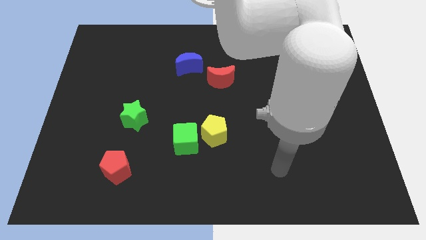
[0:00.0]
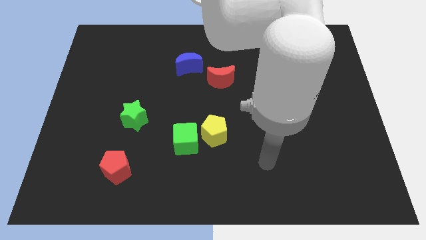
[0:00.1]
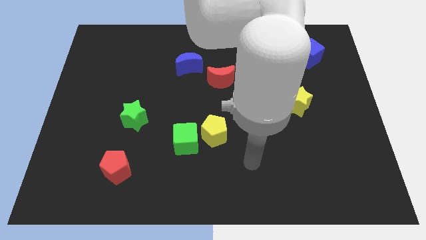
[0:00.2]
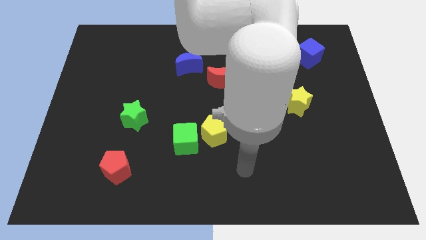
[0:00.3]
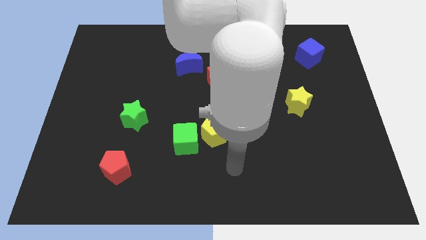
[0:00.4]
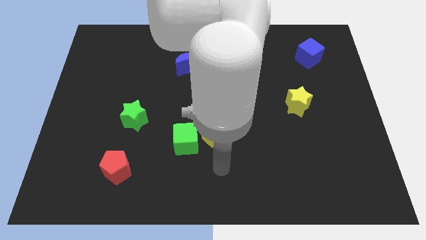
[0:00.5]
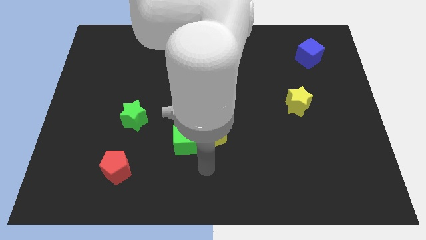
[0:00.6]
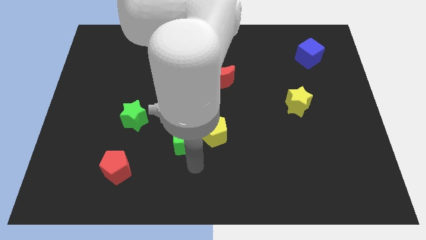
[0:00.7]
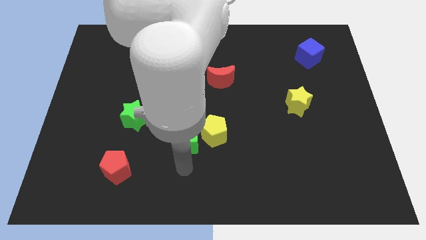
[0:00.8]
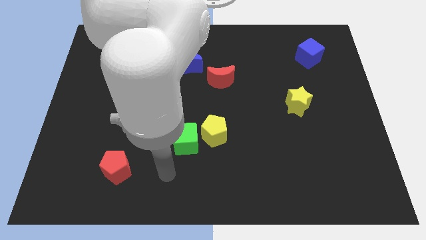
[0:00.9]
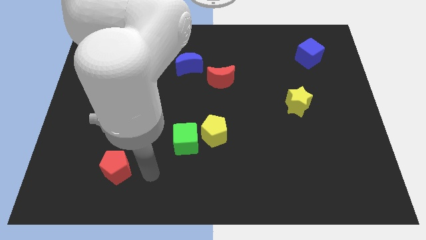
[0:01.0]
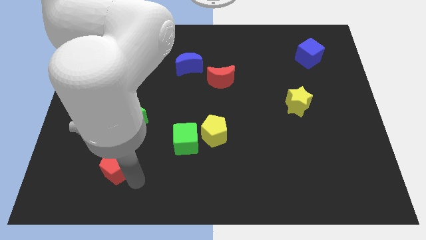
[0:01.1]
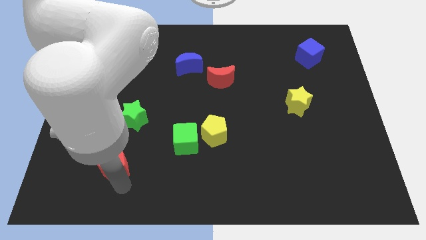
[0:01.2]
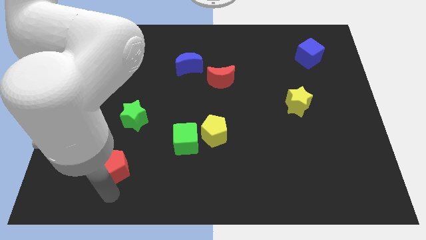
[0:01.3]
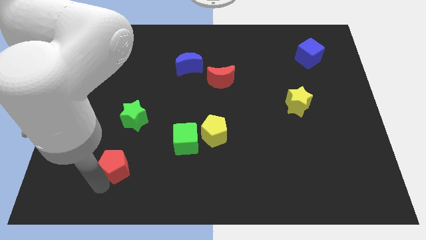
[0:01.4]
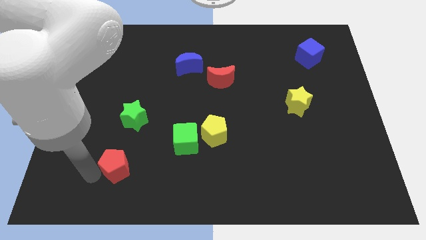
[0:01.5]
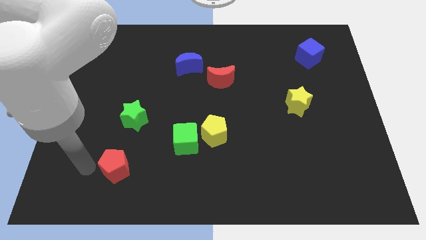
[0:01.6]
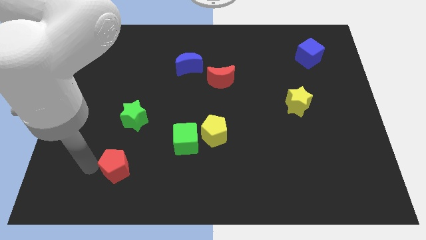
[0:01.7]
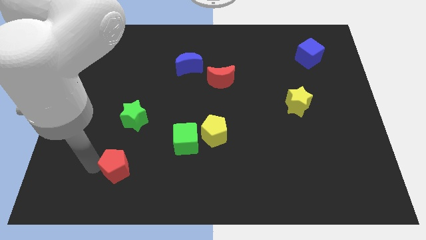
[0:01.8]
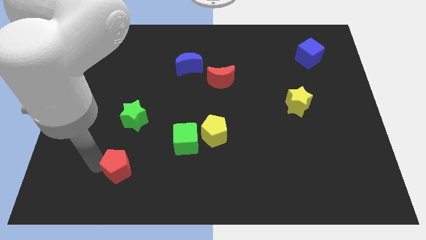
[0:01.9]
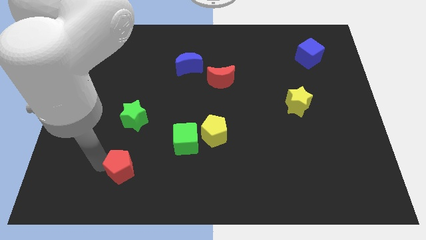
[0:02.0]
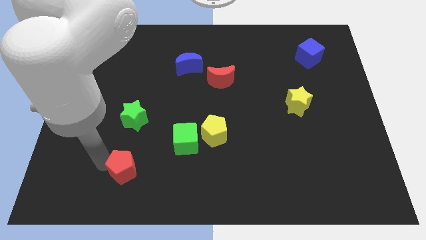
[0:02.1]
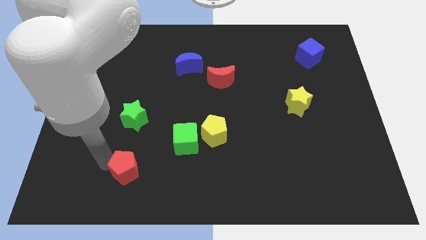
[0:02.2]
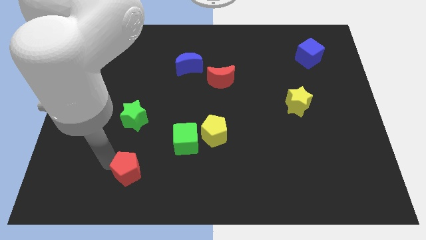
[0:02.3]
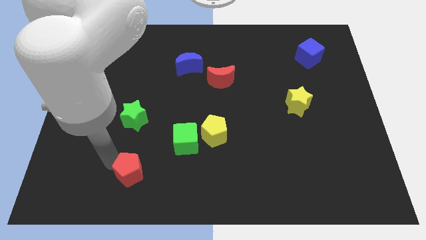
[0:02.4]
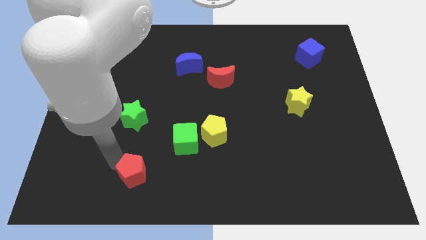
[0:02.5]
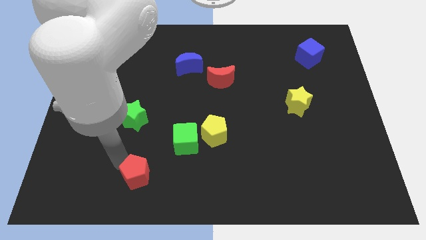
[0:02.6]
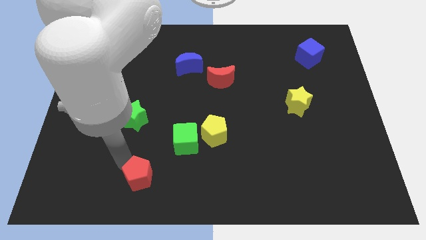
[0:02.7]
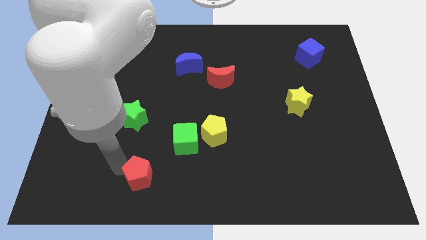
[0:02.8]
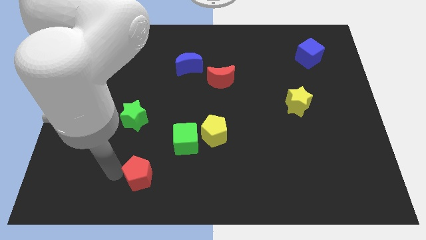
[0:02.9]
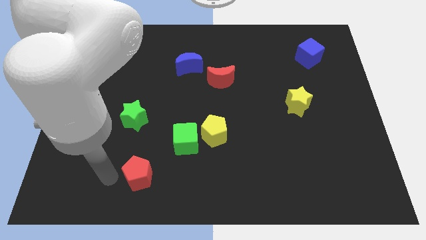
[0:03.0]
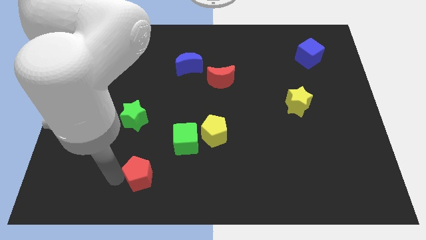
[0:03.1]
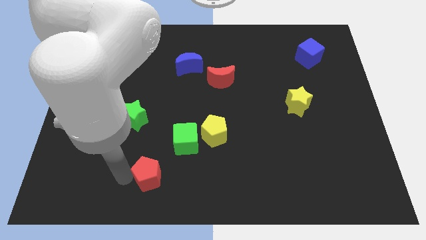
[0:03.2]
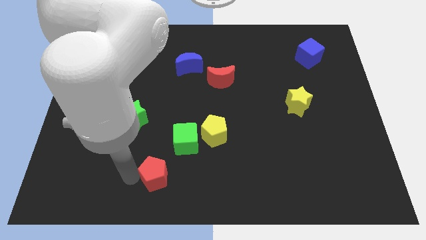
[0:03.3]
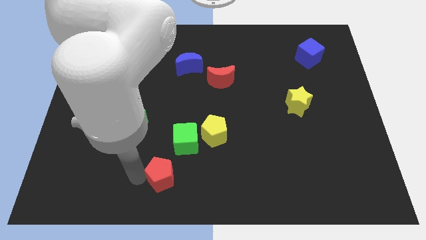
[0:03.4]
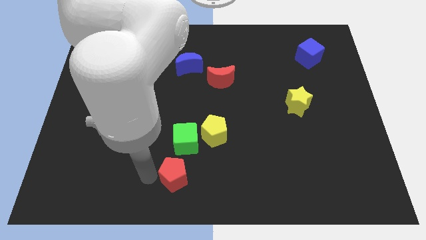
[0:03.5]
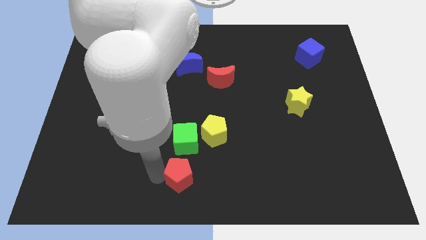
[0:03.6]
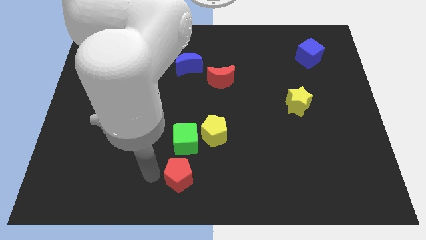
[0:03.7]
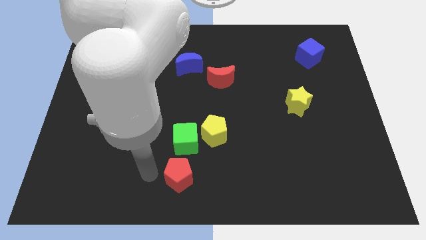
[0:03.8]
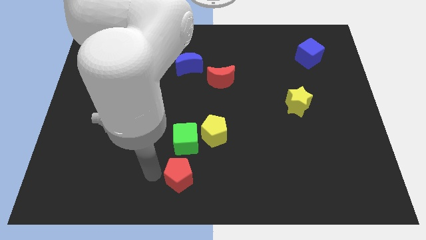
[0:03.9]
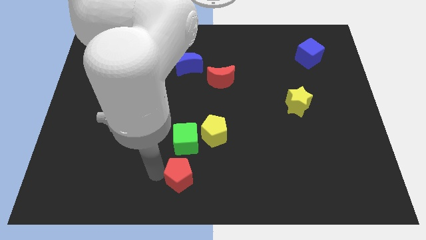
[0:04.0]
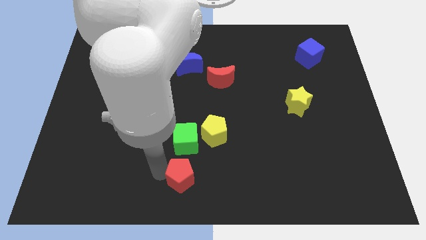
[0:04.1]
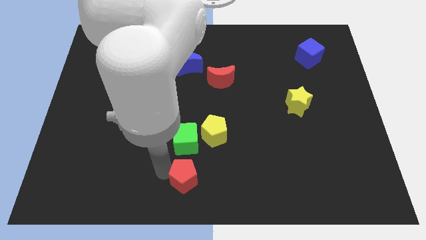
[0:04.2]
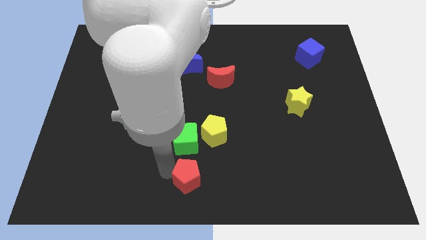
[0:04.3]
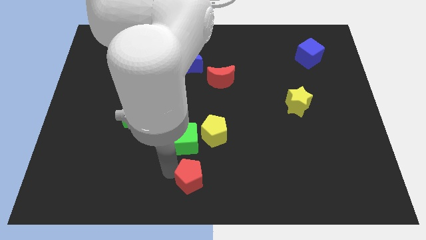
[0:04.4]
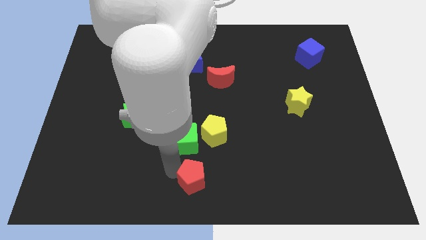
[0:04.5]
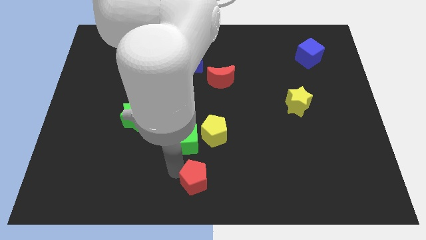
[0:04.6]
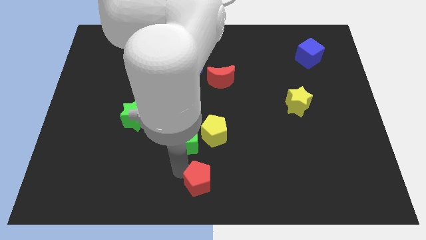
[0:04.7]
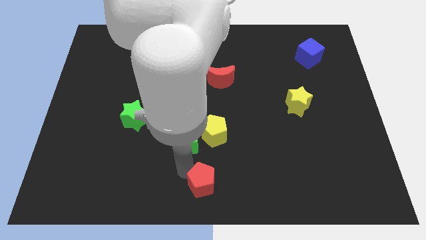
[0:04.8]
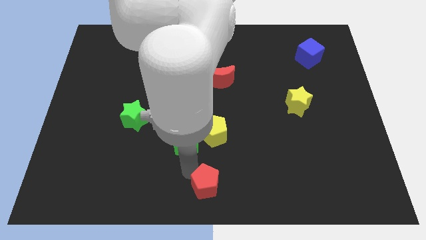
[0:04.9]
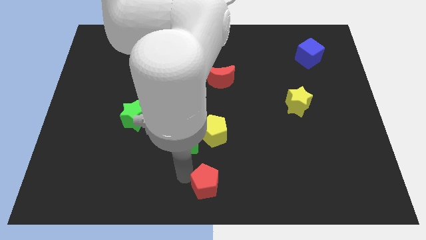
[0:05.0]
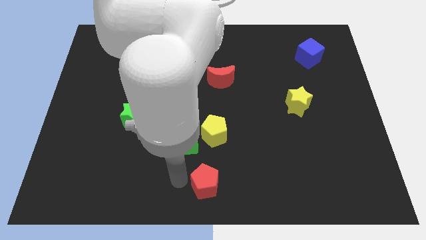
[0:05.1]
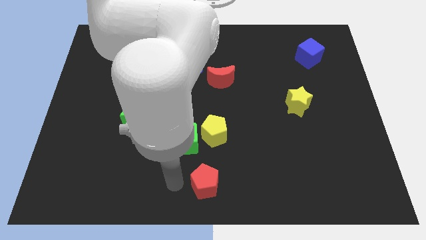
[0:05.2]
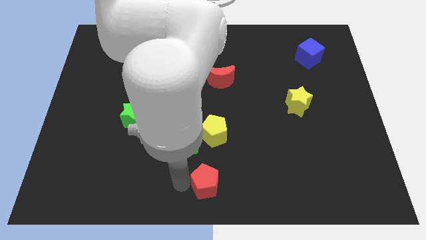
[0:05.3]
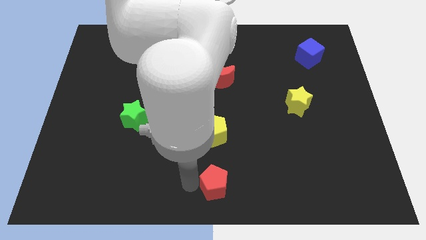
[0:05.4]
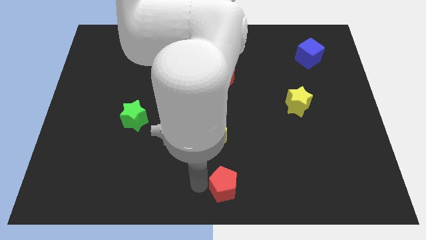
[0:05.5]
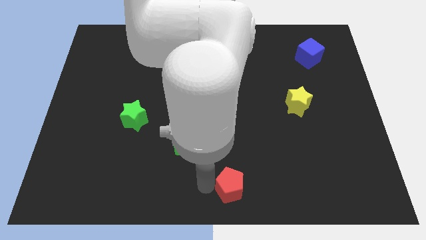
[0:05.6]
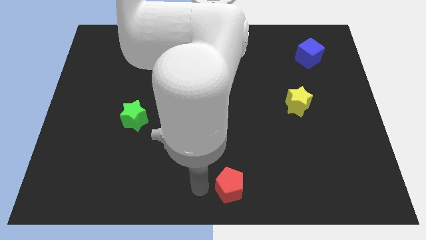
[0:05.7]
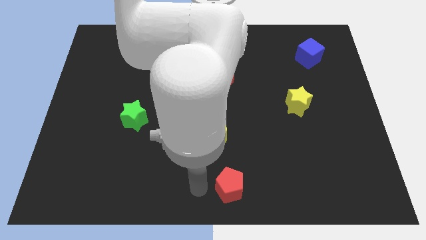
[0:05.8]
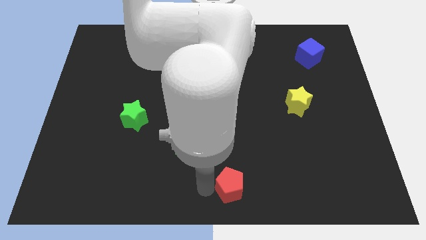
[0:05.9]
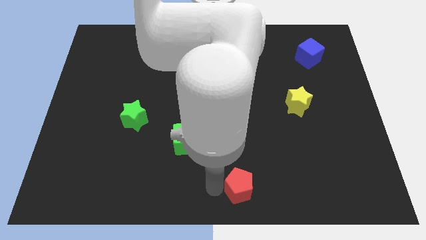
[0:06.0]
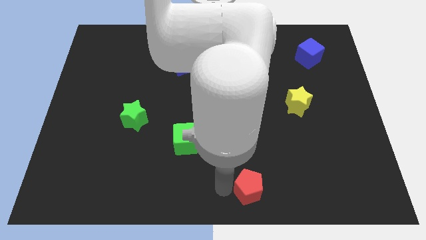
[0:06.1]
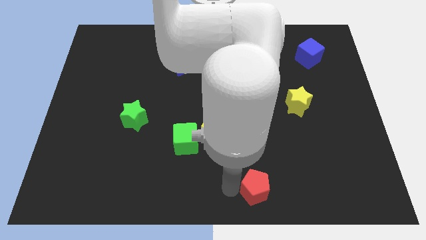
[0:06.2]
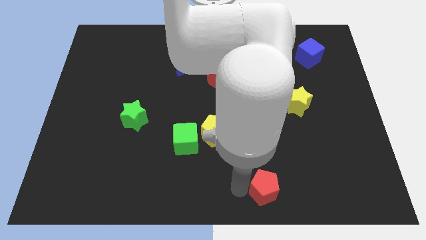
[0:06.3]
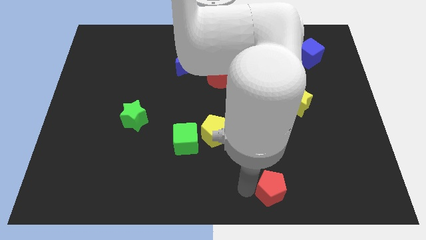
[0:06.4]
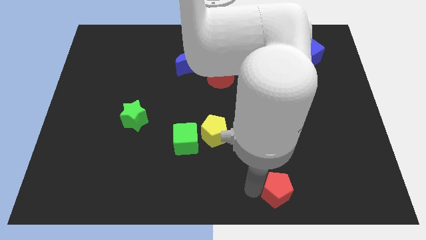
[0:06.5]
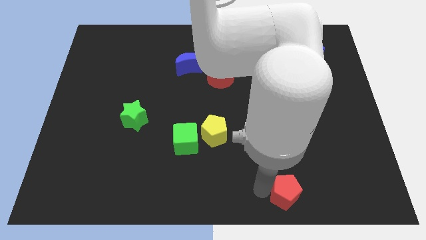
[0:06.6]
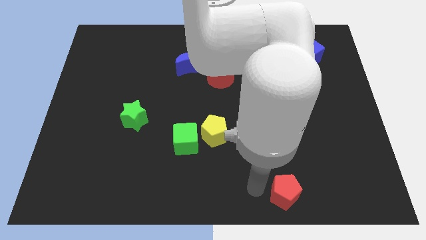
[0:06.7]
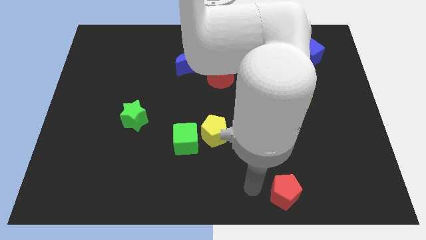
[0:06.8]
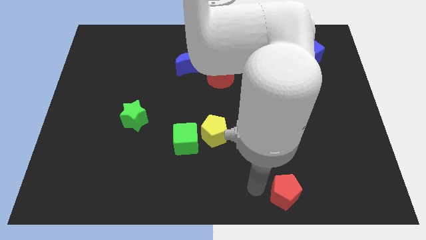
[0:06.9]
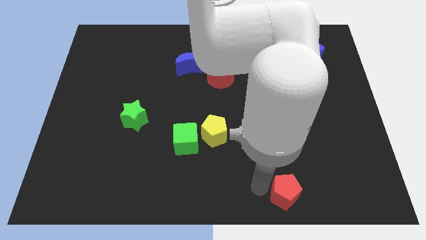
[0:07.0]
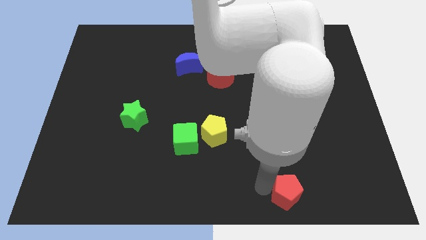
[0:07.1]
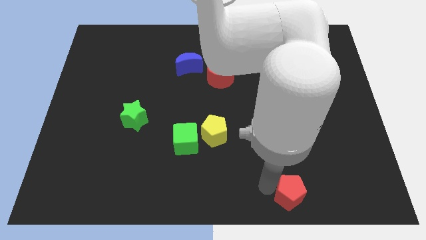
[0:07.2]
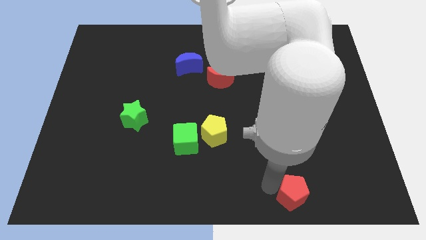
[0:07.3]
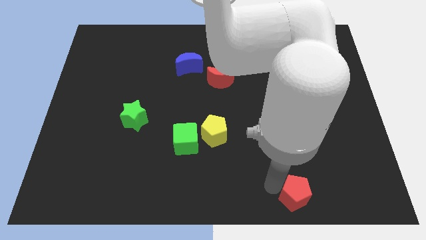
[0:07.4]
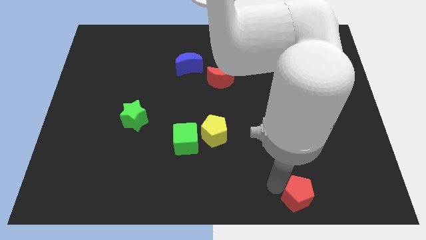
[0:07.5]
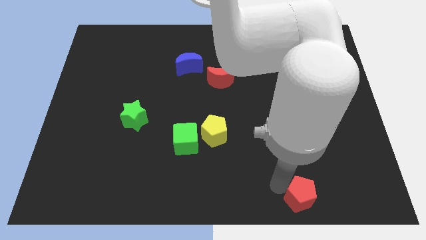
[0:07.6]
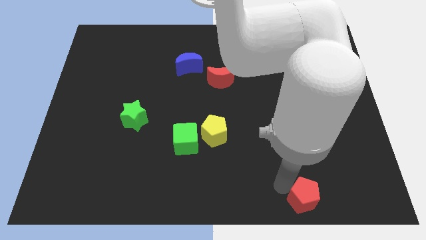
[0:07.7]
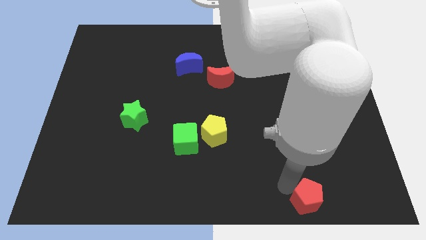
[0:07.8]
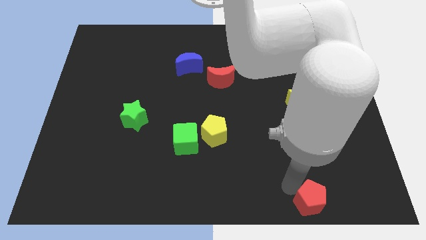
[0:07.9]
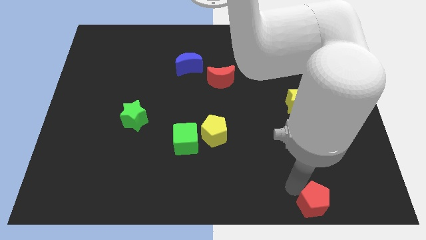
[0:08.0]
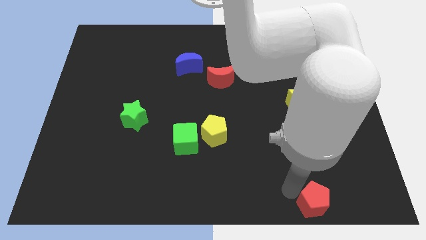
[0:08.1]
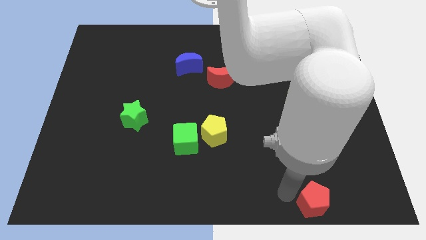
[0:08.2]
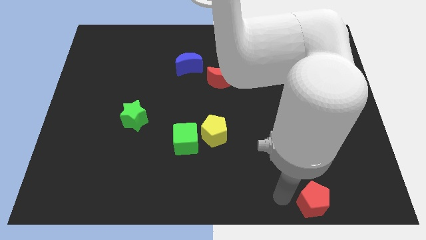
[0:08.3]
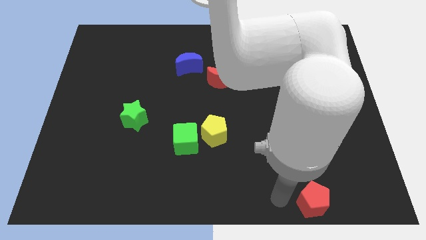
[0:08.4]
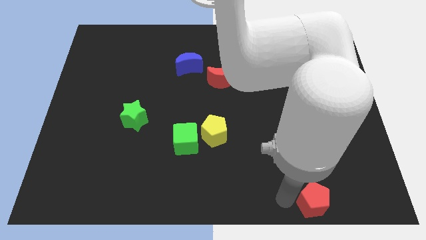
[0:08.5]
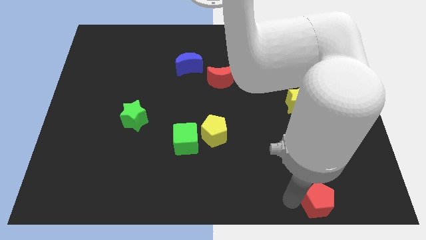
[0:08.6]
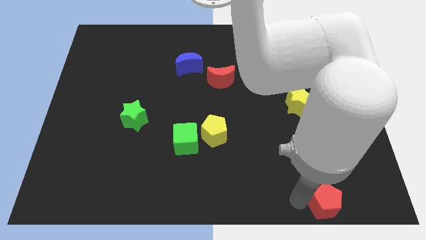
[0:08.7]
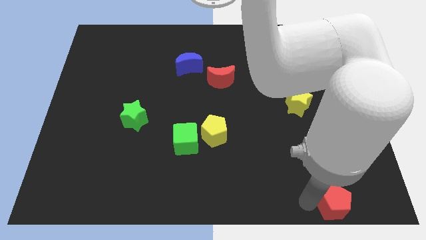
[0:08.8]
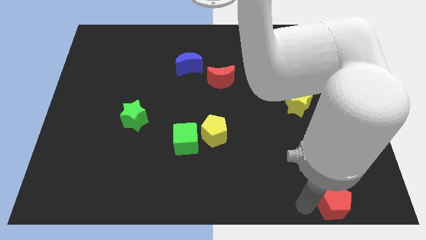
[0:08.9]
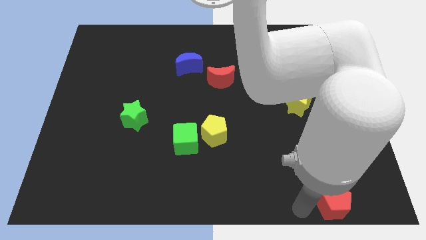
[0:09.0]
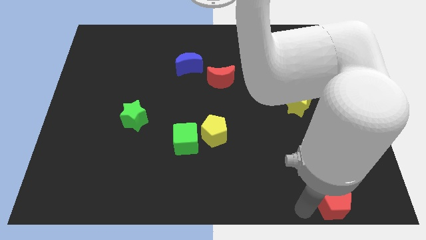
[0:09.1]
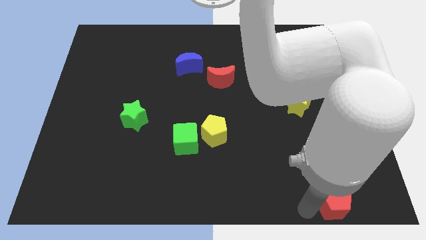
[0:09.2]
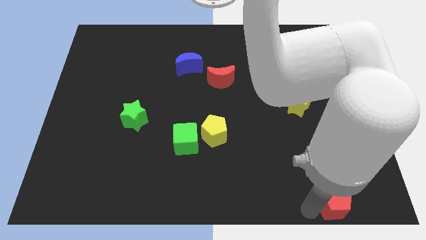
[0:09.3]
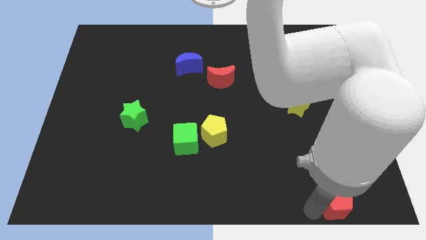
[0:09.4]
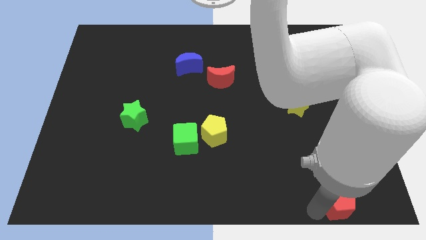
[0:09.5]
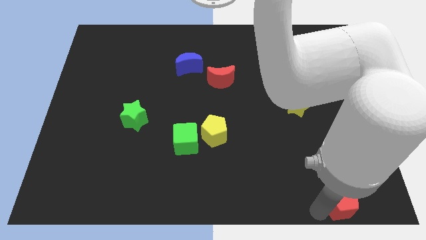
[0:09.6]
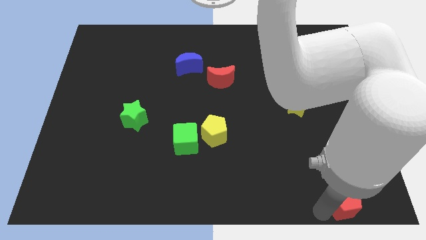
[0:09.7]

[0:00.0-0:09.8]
slide the red pentagon to the bottom right of the board
